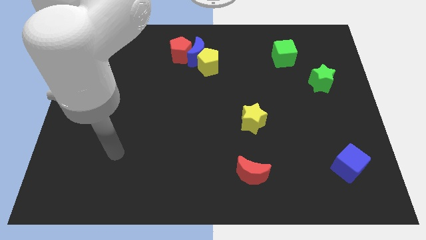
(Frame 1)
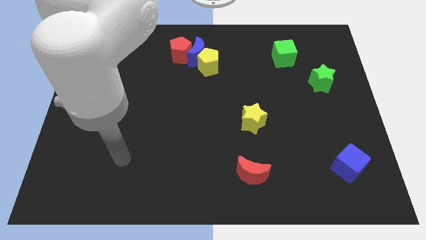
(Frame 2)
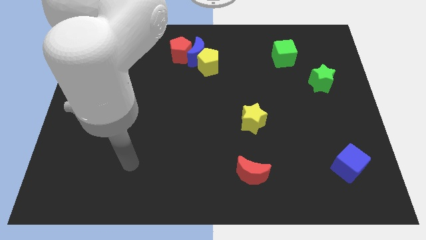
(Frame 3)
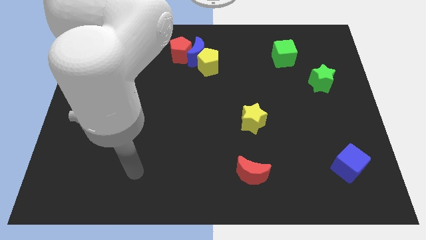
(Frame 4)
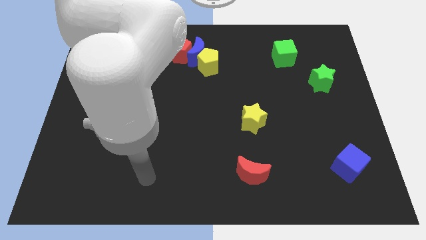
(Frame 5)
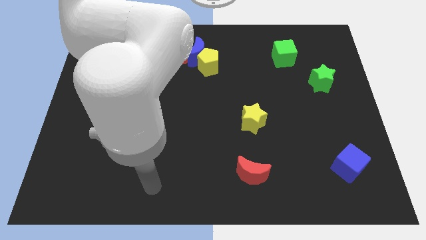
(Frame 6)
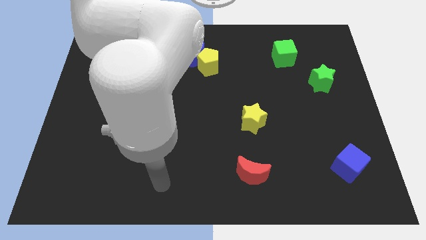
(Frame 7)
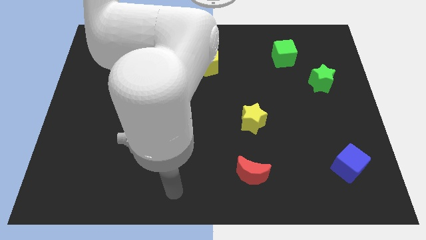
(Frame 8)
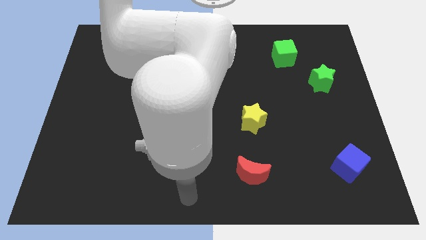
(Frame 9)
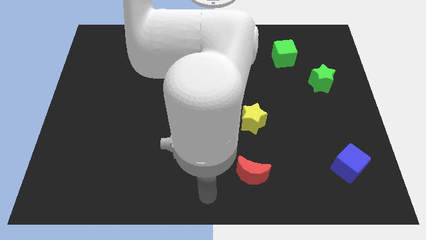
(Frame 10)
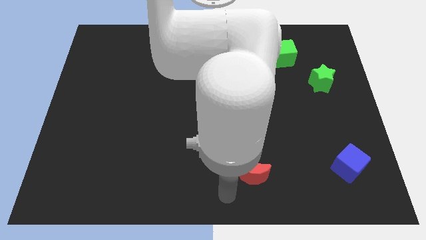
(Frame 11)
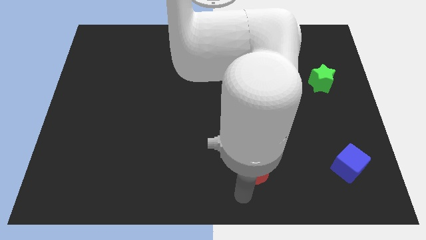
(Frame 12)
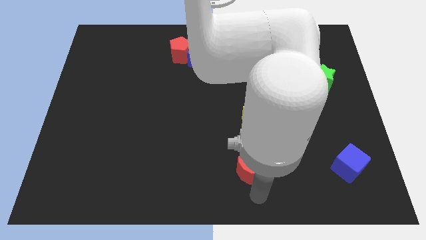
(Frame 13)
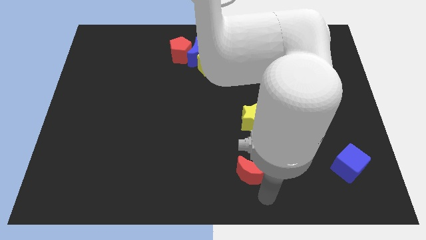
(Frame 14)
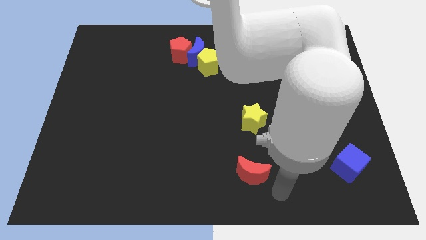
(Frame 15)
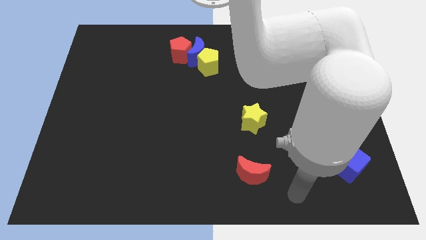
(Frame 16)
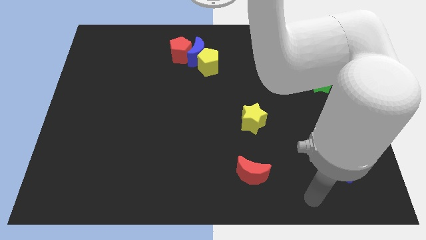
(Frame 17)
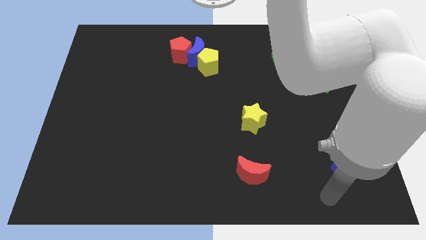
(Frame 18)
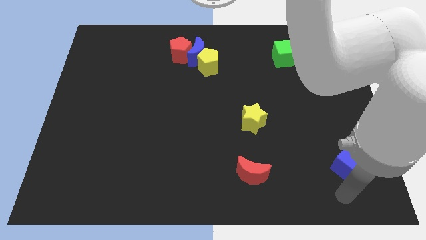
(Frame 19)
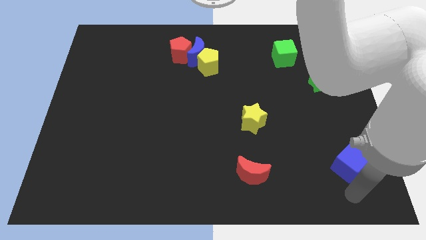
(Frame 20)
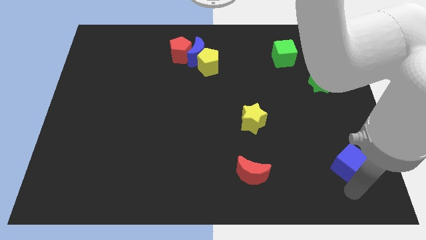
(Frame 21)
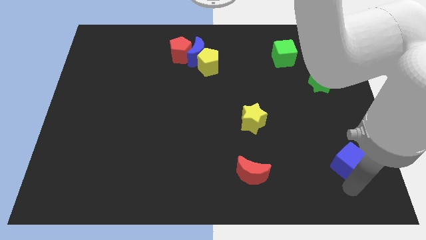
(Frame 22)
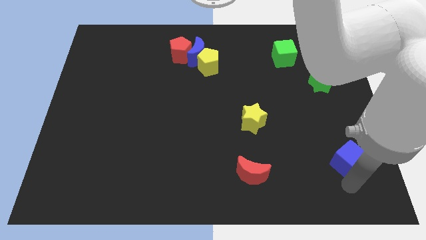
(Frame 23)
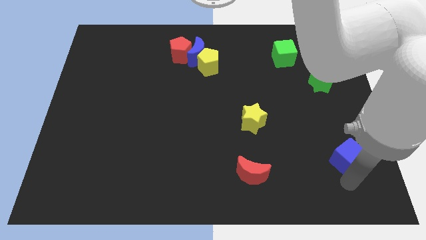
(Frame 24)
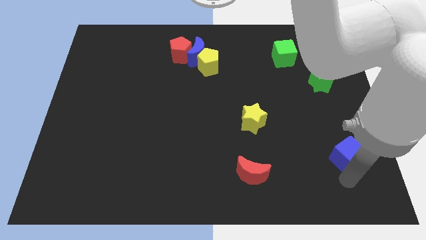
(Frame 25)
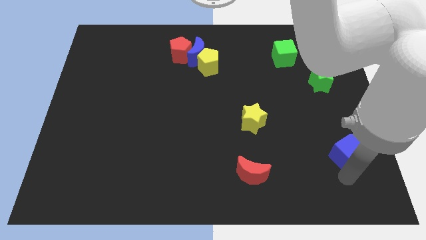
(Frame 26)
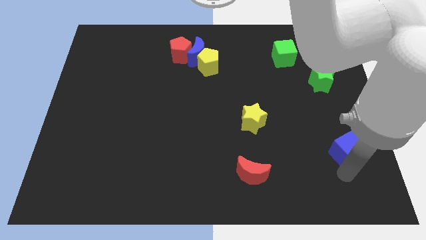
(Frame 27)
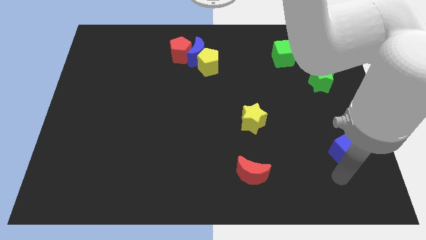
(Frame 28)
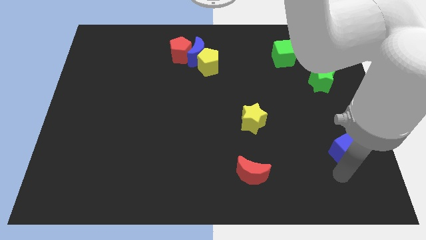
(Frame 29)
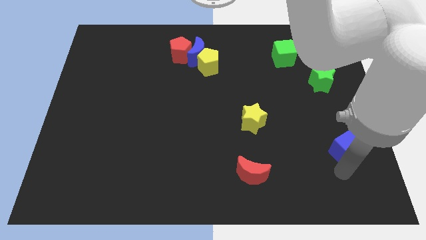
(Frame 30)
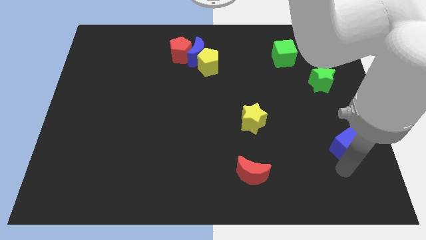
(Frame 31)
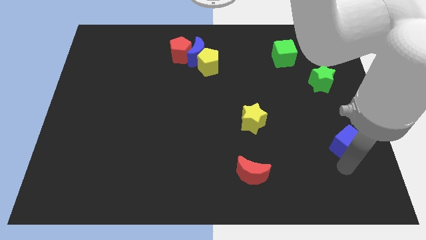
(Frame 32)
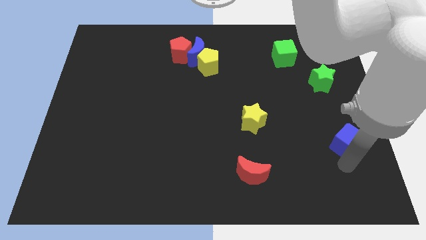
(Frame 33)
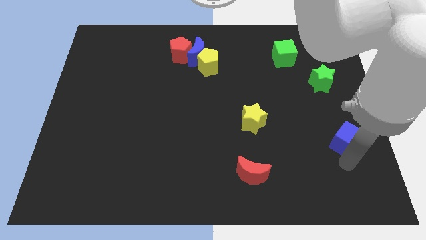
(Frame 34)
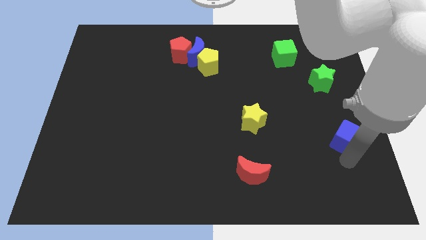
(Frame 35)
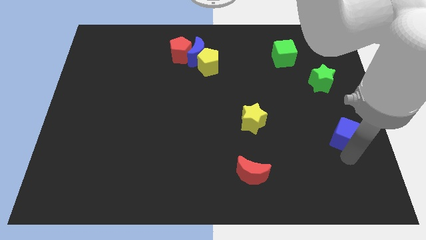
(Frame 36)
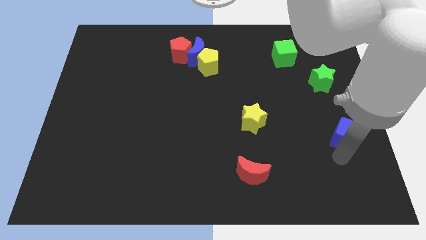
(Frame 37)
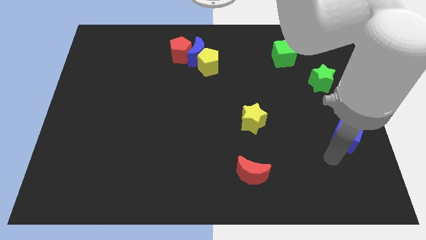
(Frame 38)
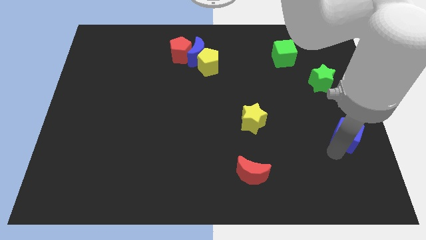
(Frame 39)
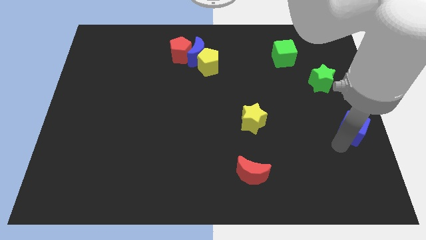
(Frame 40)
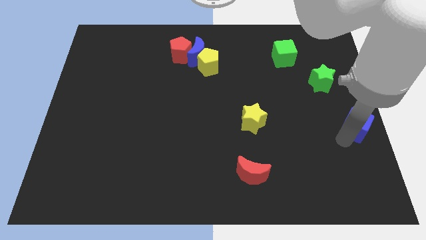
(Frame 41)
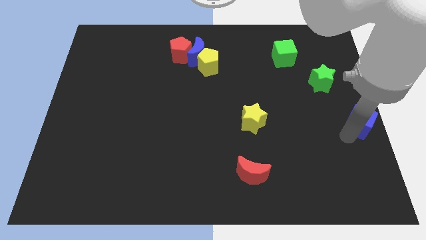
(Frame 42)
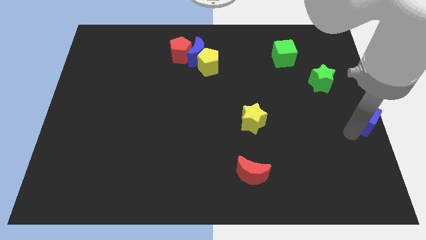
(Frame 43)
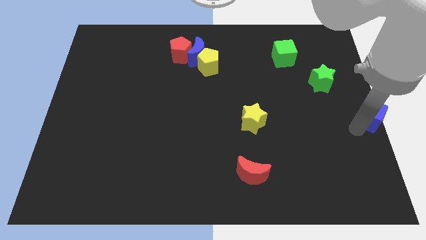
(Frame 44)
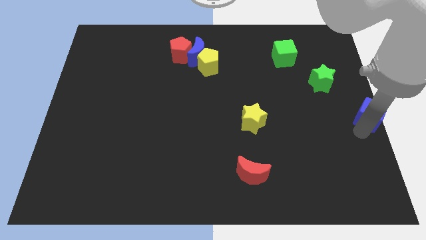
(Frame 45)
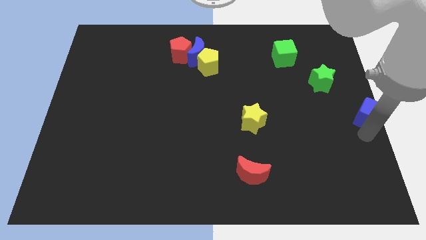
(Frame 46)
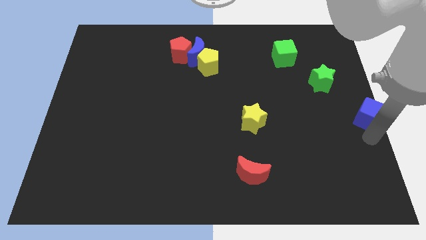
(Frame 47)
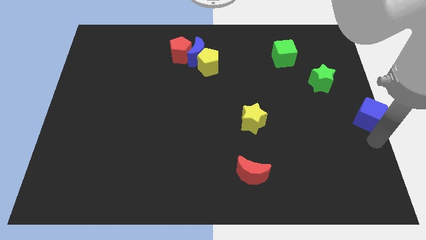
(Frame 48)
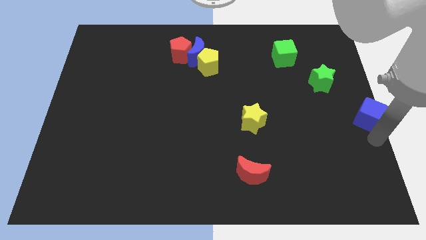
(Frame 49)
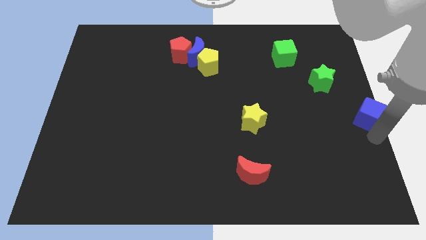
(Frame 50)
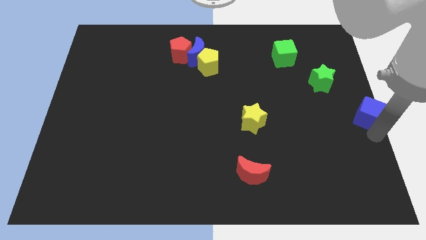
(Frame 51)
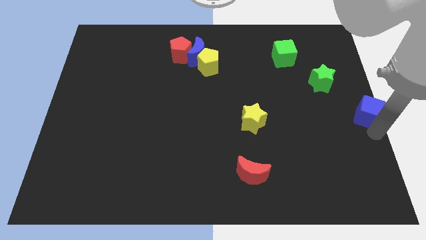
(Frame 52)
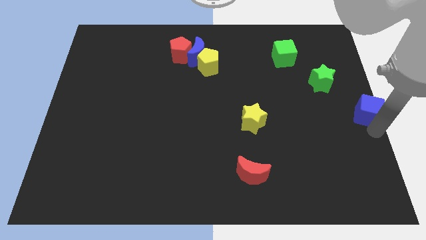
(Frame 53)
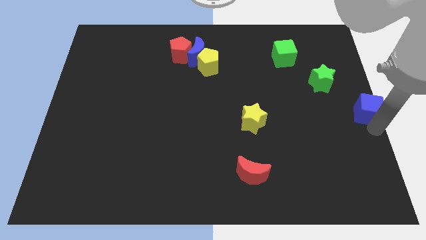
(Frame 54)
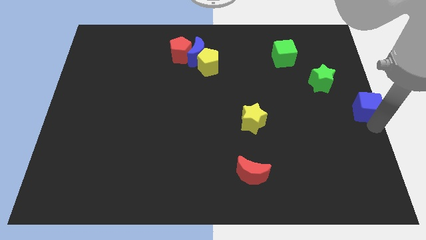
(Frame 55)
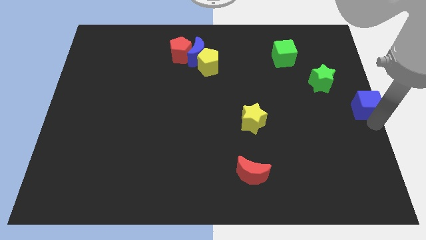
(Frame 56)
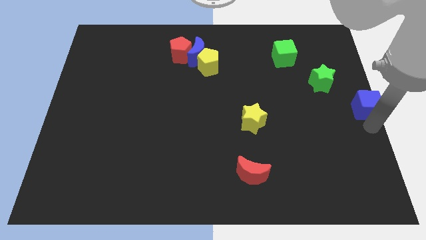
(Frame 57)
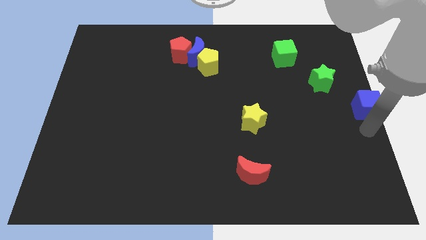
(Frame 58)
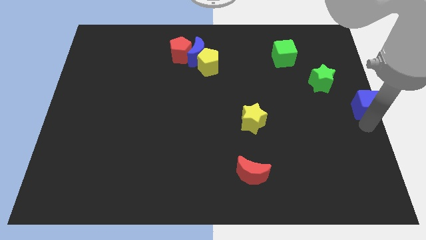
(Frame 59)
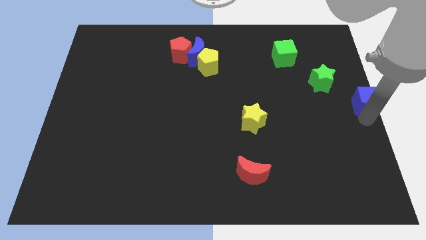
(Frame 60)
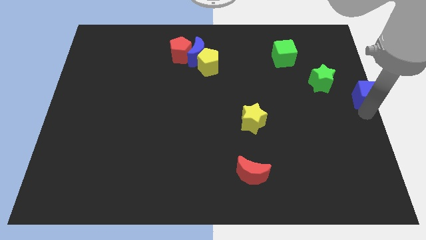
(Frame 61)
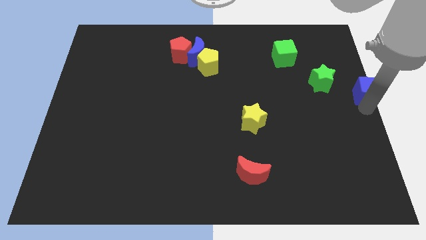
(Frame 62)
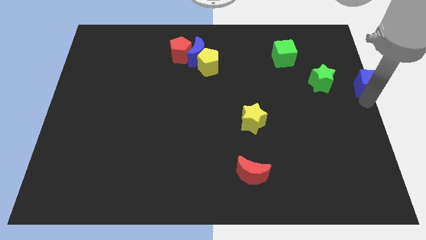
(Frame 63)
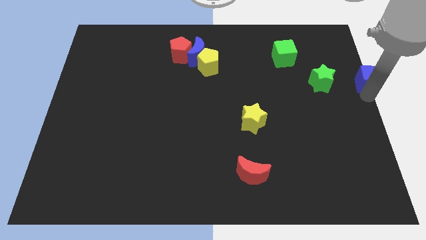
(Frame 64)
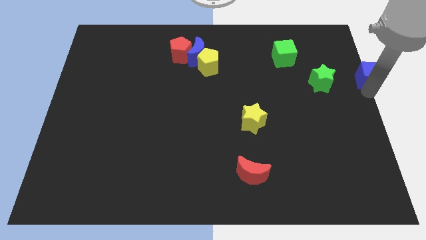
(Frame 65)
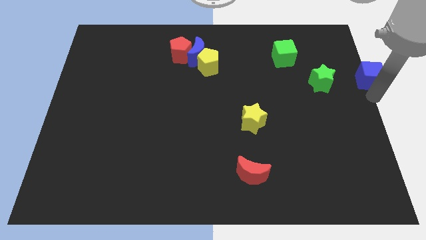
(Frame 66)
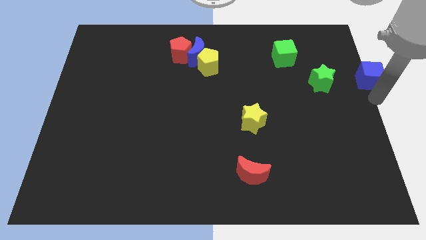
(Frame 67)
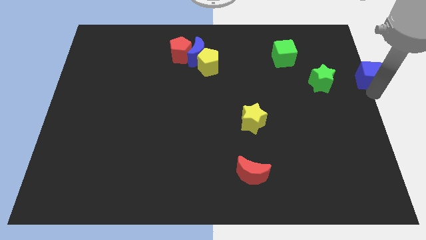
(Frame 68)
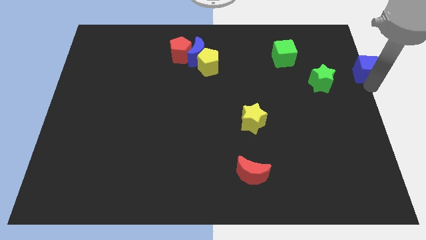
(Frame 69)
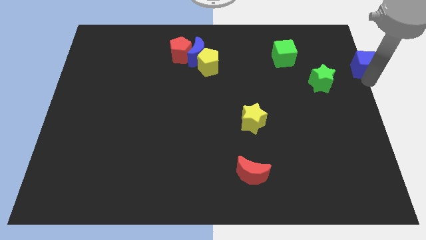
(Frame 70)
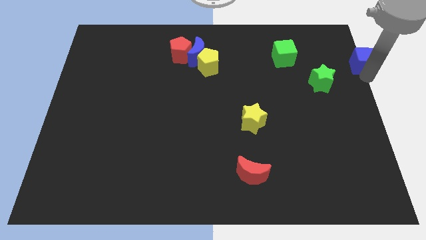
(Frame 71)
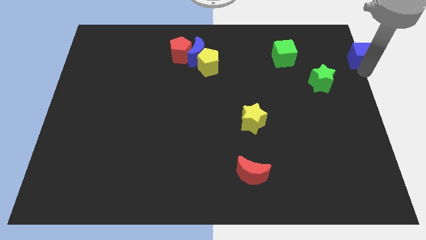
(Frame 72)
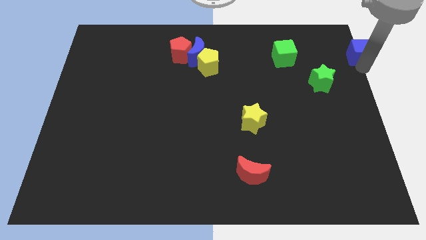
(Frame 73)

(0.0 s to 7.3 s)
put the blue cube to the top right
